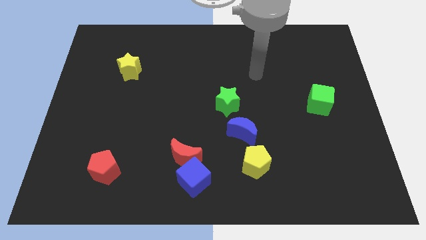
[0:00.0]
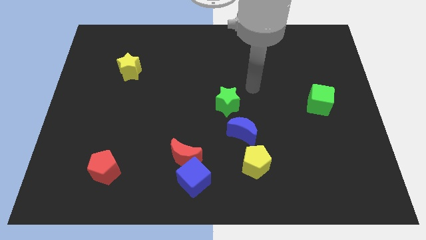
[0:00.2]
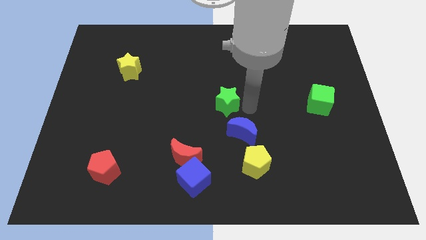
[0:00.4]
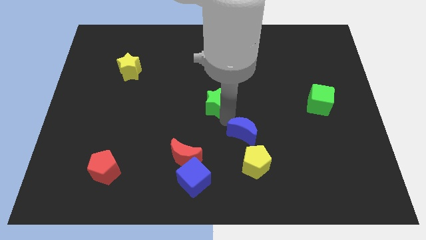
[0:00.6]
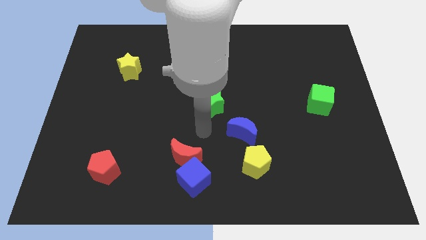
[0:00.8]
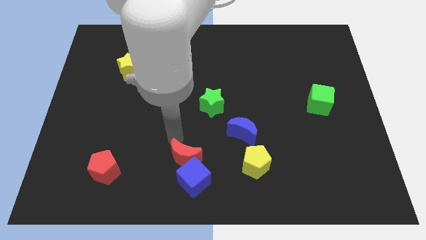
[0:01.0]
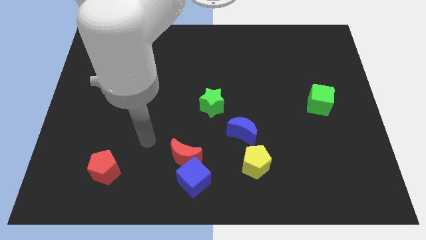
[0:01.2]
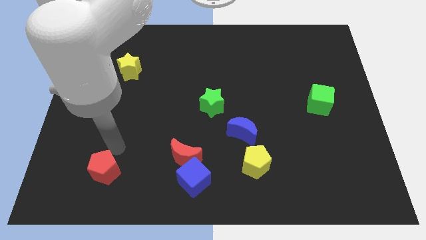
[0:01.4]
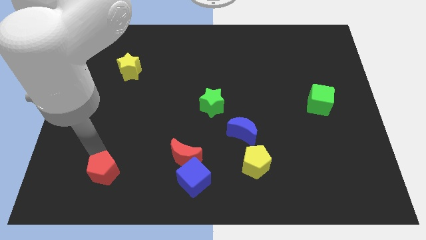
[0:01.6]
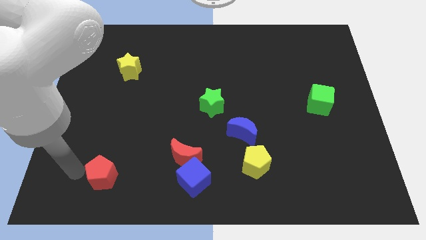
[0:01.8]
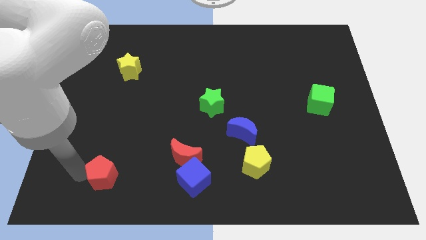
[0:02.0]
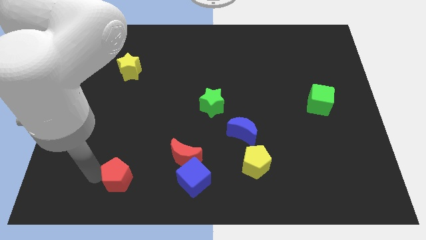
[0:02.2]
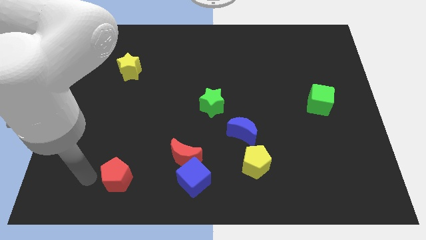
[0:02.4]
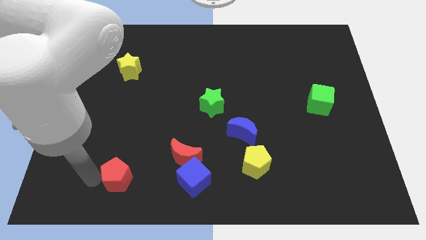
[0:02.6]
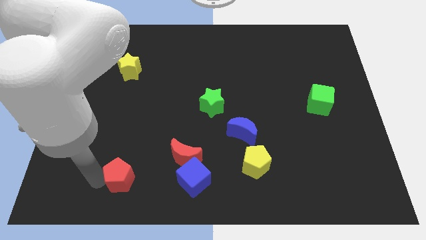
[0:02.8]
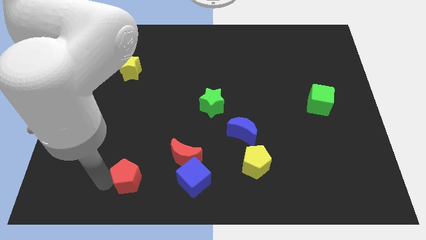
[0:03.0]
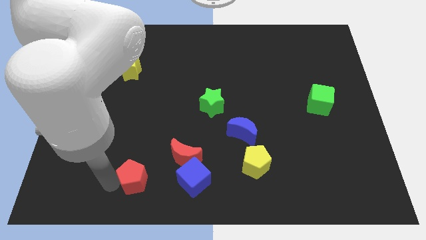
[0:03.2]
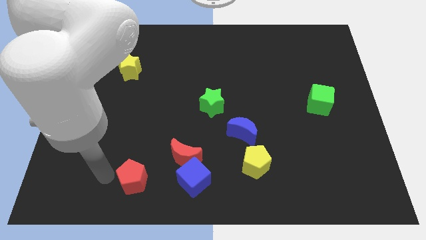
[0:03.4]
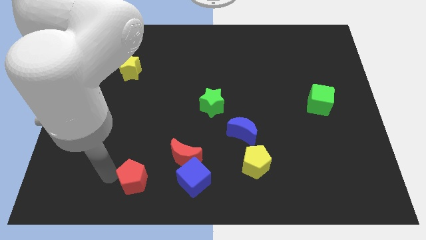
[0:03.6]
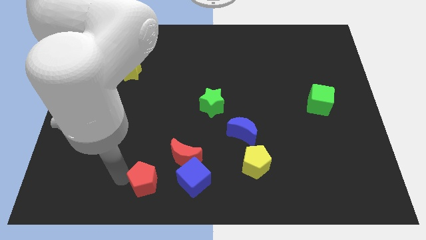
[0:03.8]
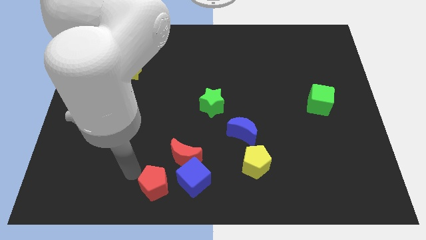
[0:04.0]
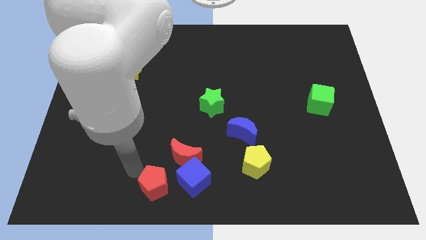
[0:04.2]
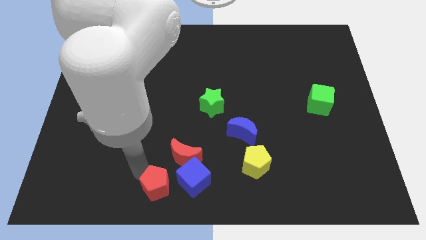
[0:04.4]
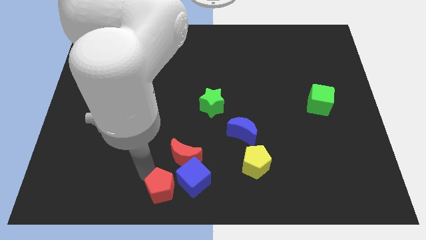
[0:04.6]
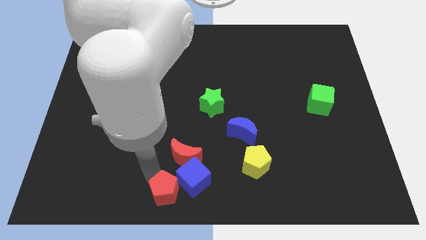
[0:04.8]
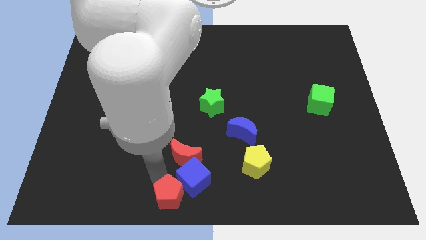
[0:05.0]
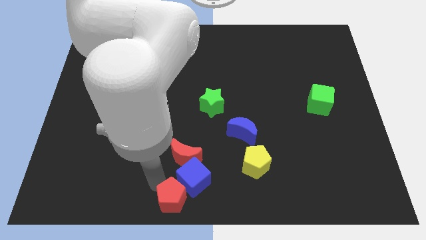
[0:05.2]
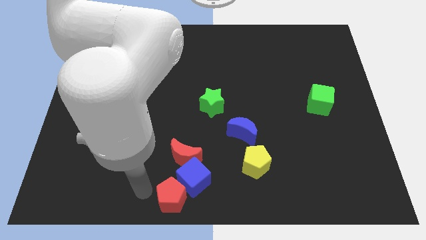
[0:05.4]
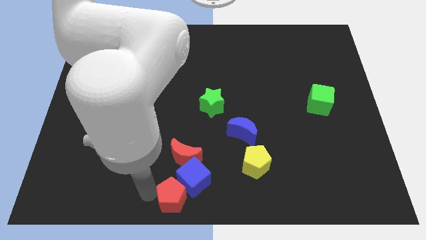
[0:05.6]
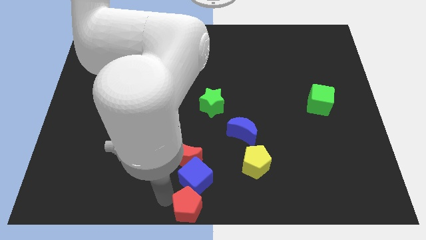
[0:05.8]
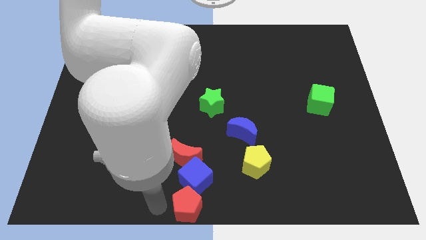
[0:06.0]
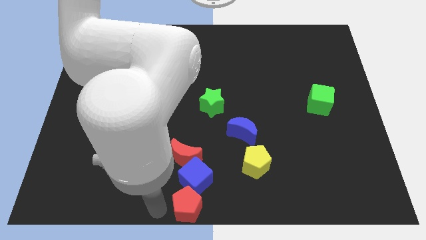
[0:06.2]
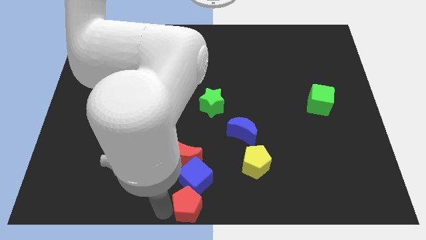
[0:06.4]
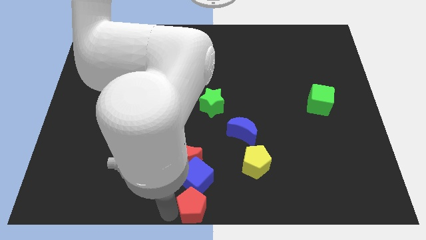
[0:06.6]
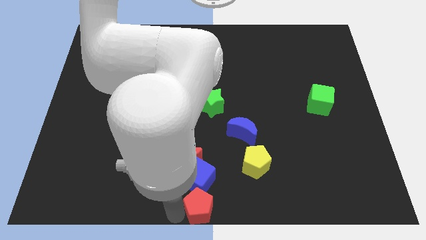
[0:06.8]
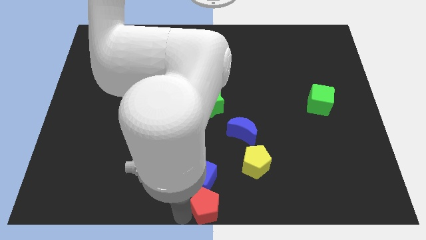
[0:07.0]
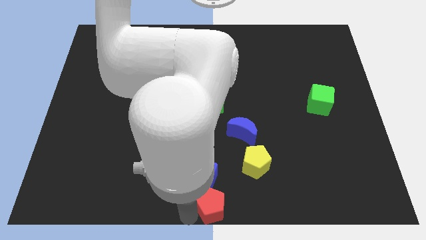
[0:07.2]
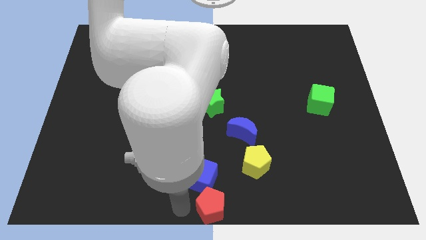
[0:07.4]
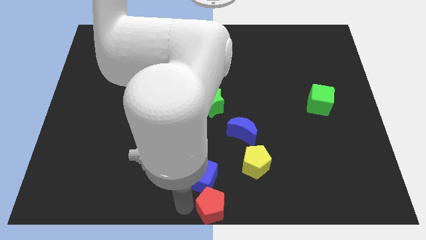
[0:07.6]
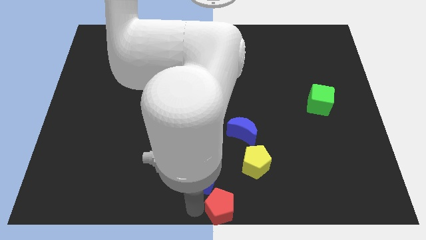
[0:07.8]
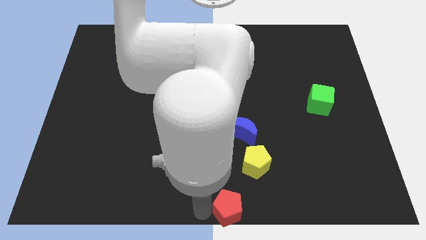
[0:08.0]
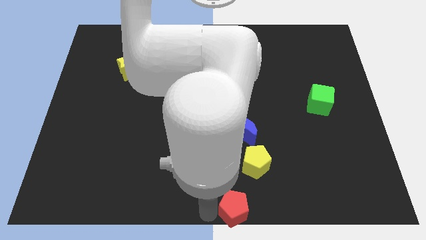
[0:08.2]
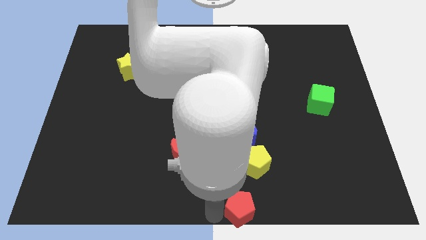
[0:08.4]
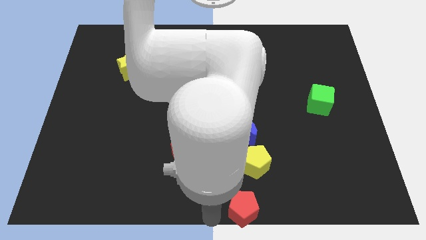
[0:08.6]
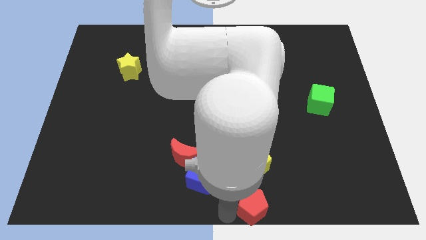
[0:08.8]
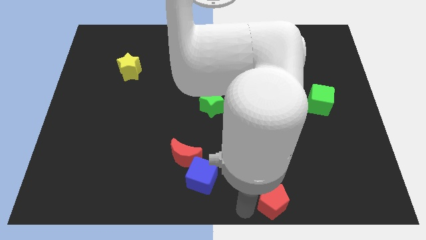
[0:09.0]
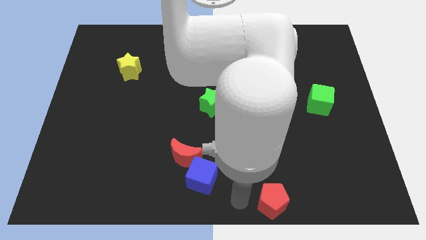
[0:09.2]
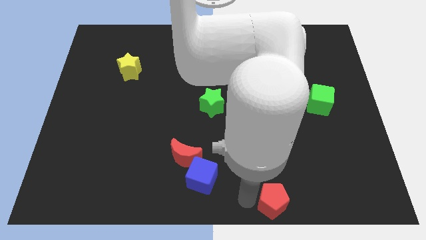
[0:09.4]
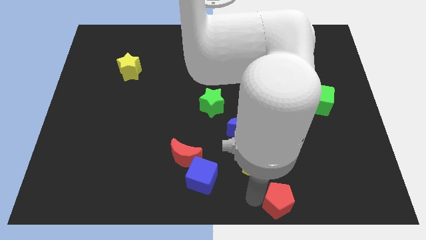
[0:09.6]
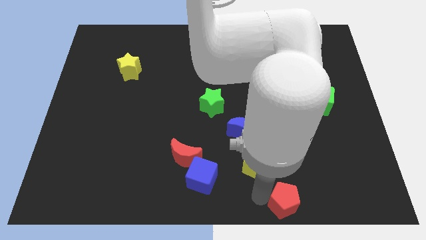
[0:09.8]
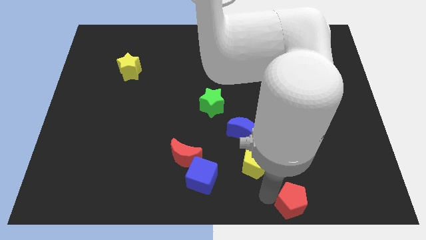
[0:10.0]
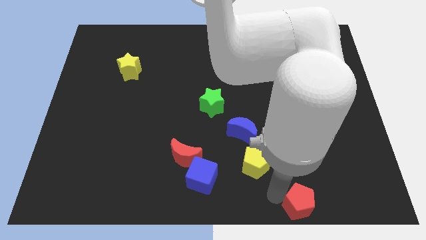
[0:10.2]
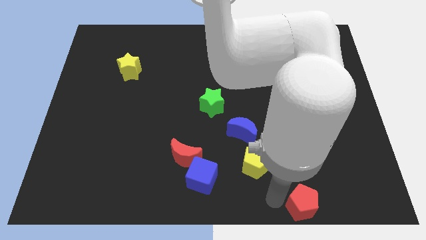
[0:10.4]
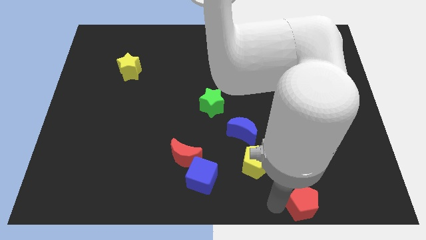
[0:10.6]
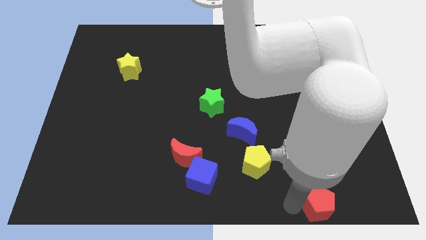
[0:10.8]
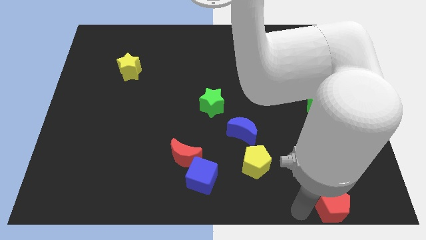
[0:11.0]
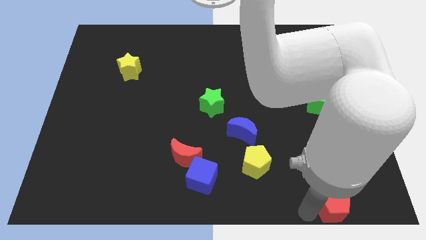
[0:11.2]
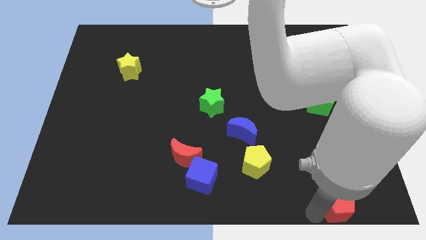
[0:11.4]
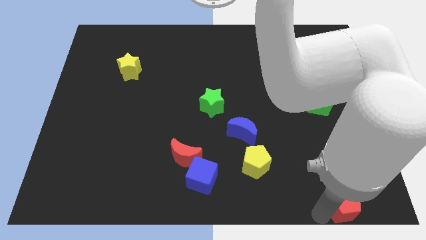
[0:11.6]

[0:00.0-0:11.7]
slide the red pentagon to the bottom right of the board

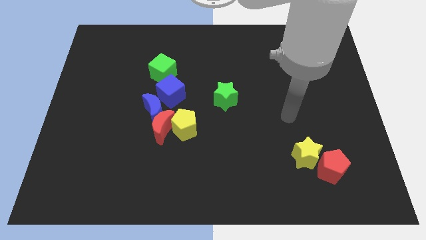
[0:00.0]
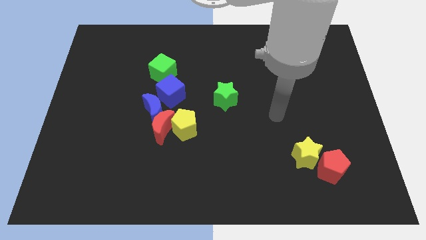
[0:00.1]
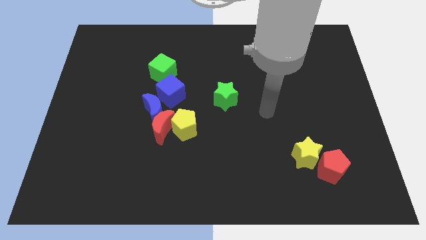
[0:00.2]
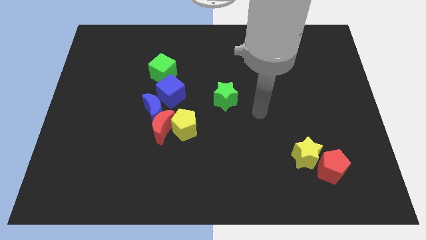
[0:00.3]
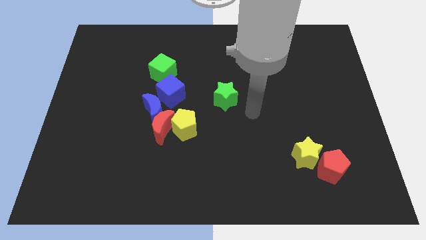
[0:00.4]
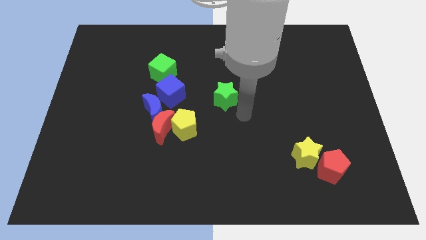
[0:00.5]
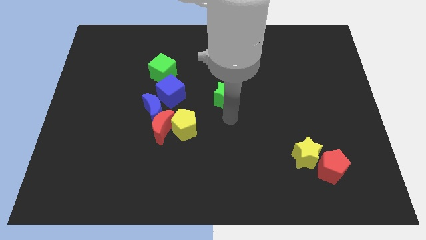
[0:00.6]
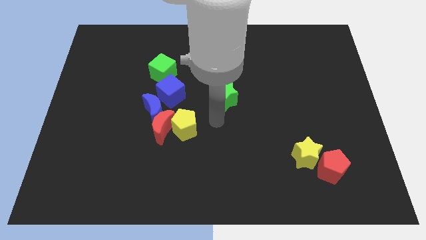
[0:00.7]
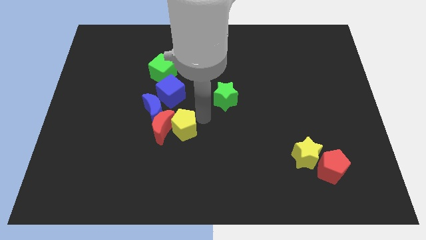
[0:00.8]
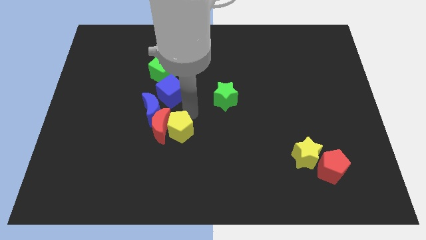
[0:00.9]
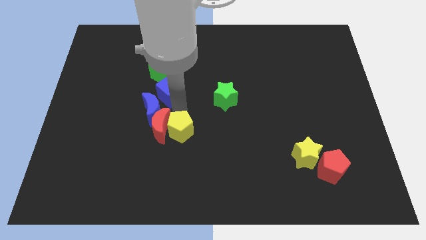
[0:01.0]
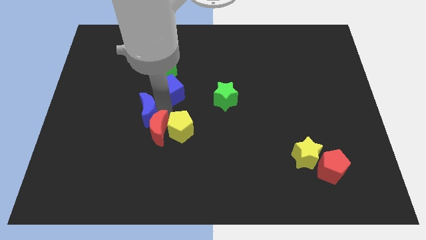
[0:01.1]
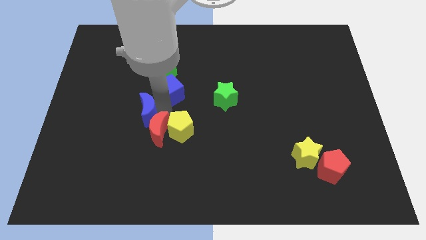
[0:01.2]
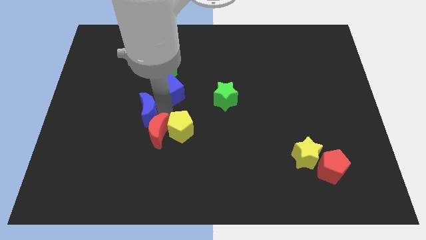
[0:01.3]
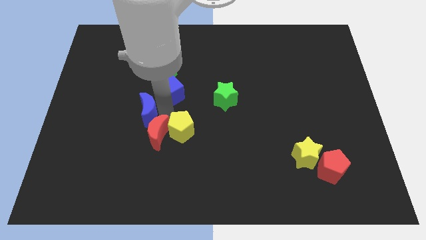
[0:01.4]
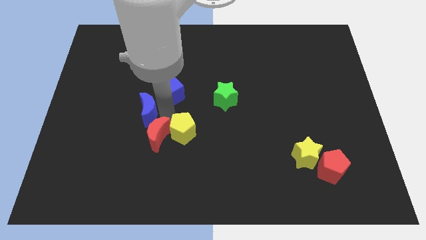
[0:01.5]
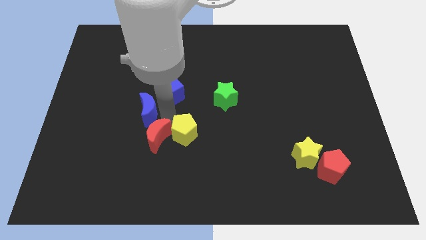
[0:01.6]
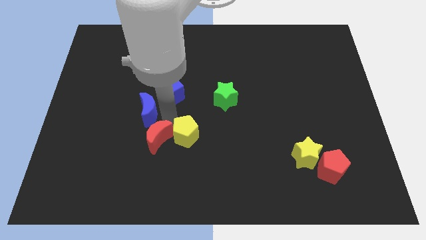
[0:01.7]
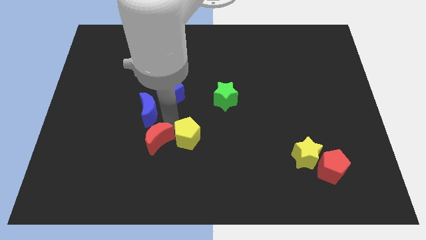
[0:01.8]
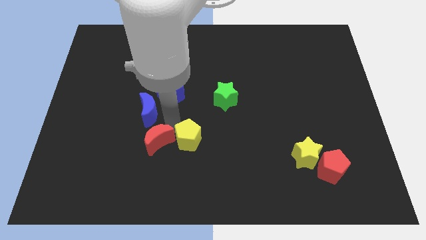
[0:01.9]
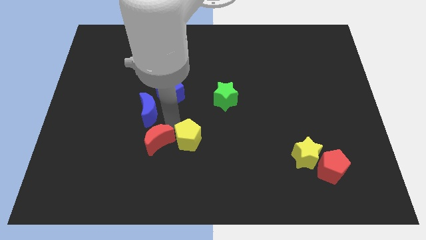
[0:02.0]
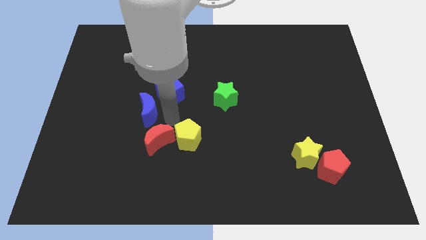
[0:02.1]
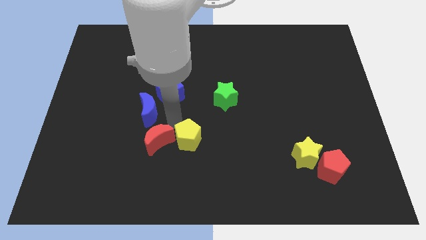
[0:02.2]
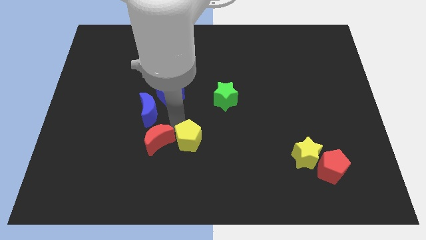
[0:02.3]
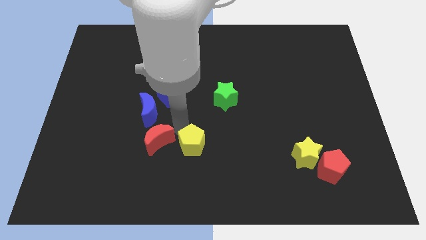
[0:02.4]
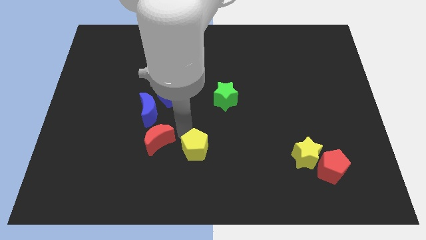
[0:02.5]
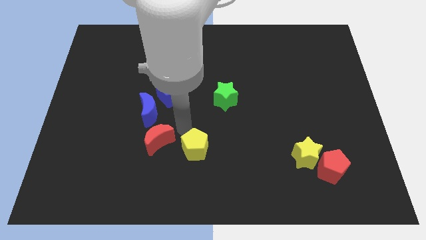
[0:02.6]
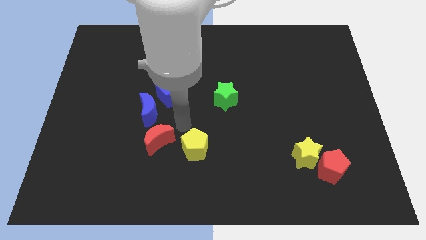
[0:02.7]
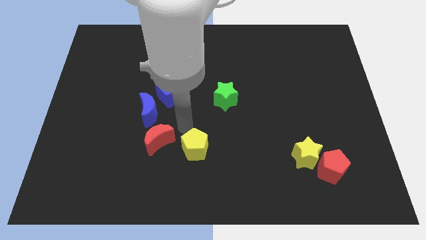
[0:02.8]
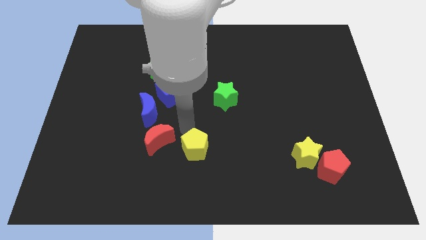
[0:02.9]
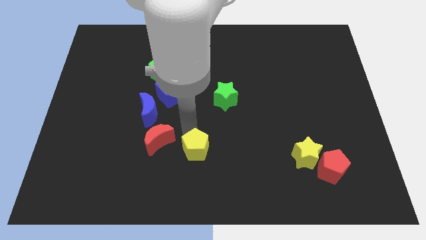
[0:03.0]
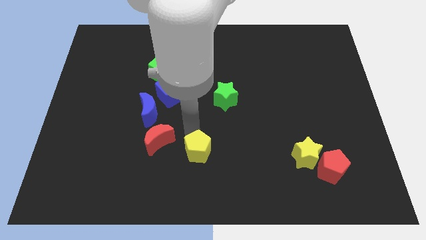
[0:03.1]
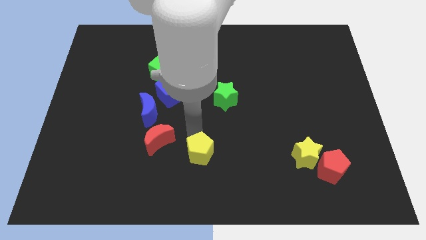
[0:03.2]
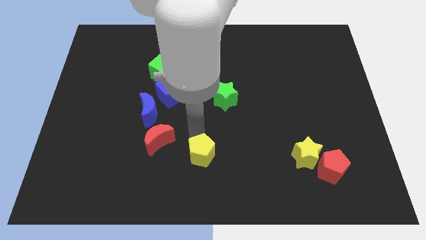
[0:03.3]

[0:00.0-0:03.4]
slide the yellow pentagon to the bottom
